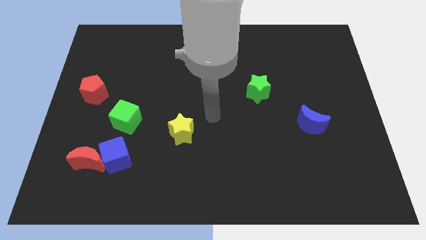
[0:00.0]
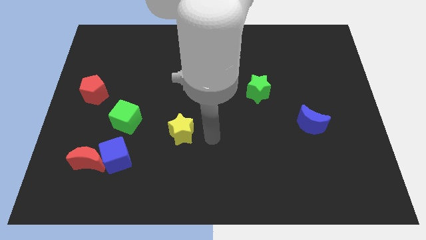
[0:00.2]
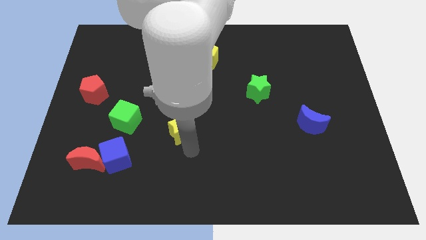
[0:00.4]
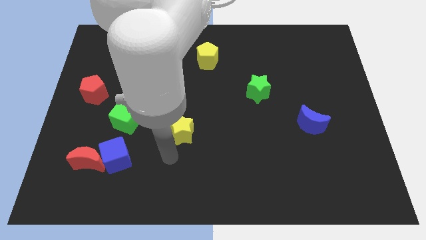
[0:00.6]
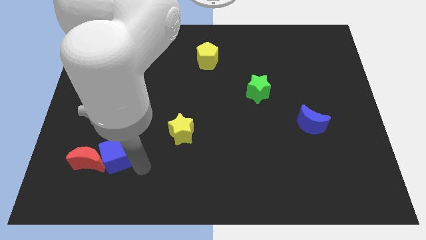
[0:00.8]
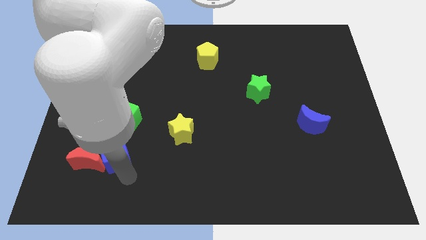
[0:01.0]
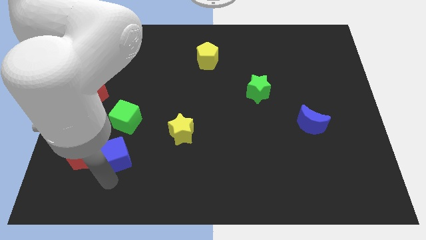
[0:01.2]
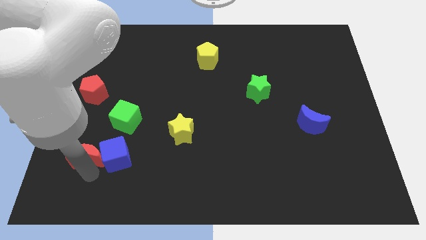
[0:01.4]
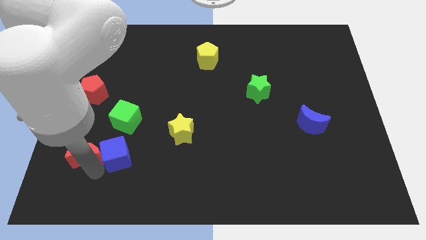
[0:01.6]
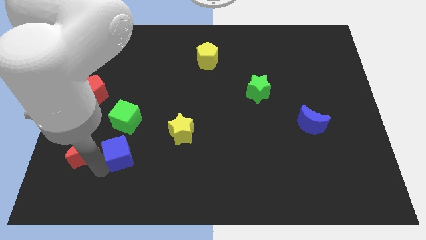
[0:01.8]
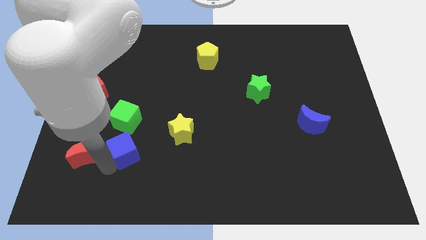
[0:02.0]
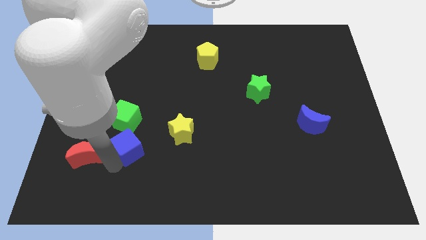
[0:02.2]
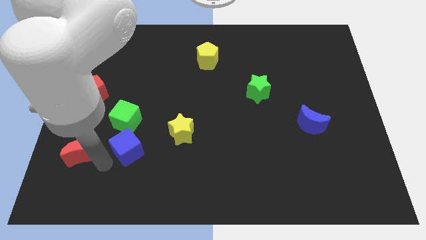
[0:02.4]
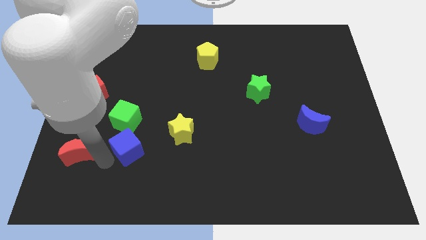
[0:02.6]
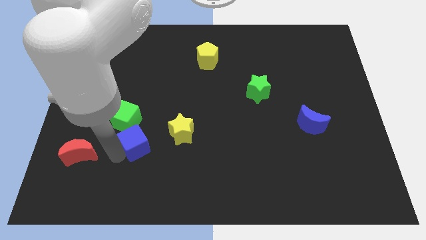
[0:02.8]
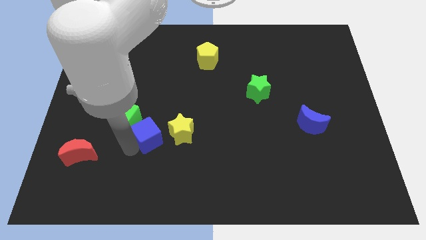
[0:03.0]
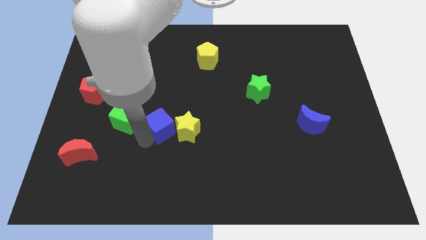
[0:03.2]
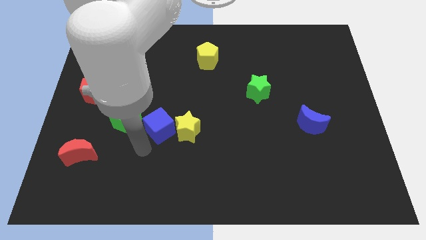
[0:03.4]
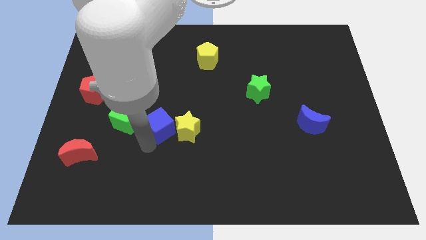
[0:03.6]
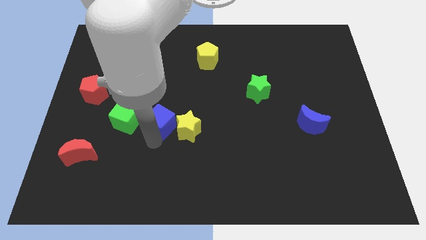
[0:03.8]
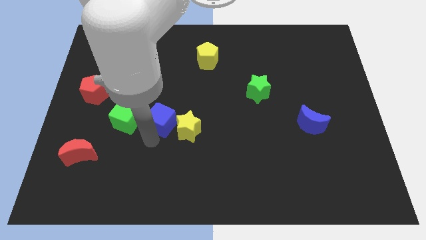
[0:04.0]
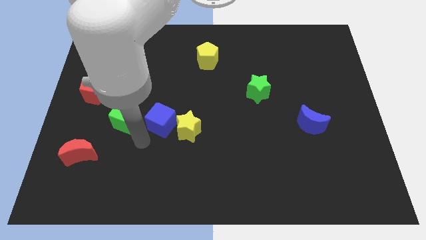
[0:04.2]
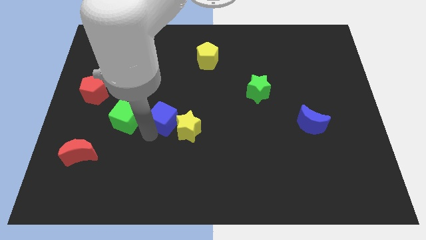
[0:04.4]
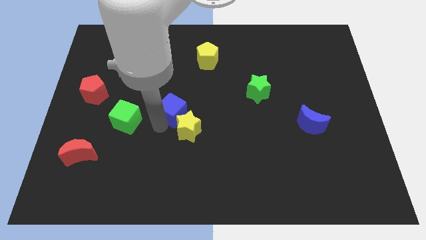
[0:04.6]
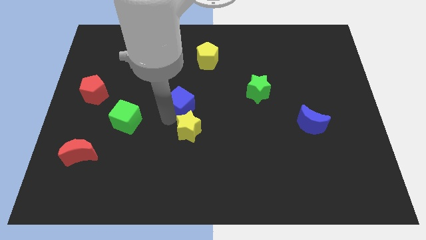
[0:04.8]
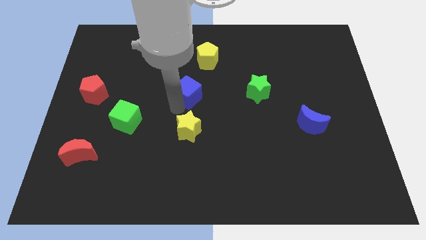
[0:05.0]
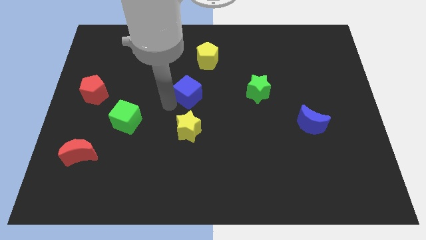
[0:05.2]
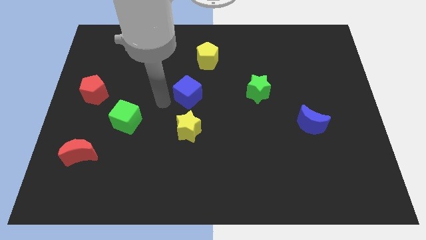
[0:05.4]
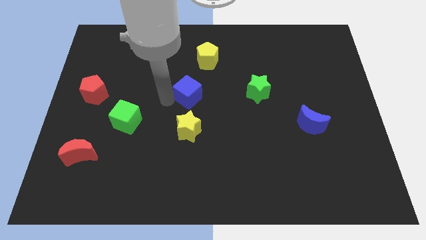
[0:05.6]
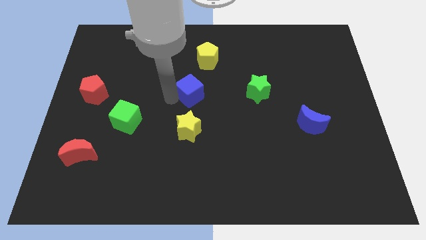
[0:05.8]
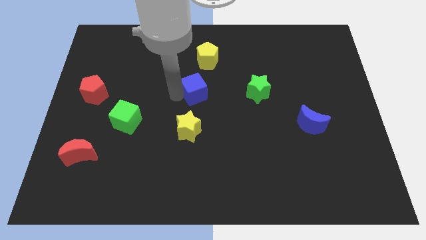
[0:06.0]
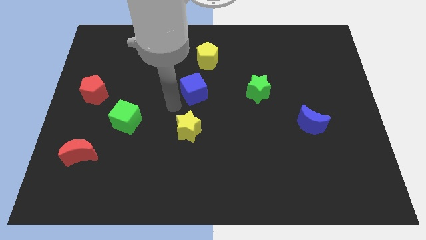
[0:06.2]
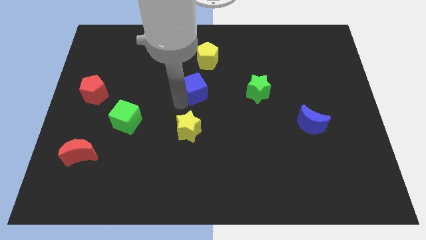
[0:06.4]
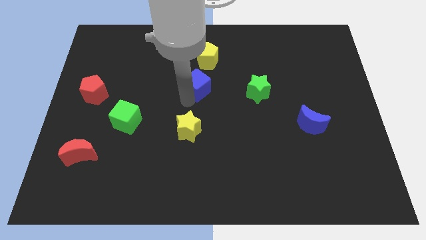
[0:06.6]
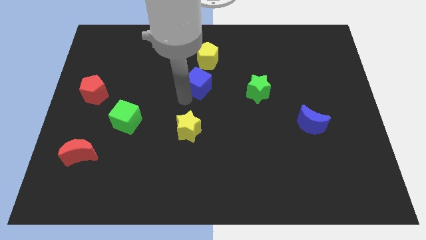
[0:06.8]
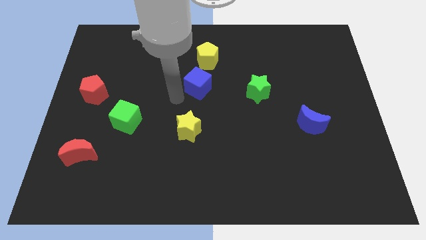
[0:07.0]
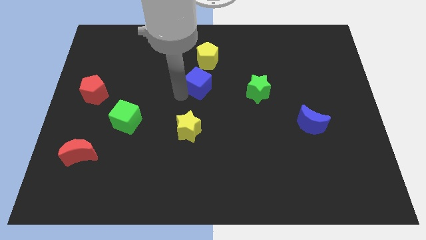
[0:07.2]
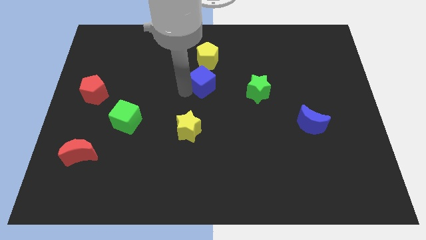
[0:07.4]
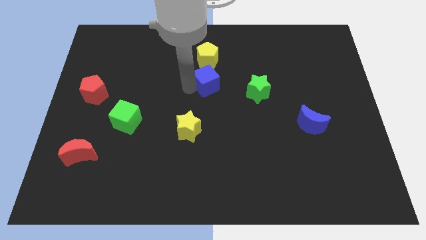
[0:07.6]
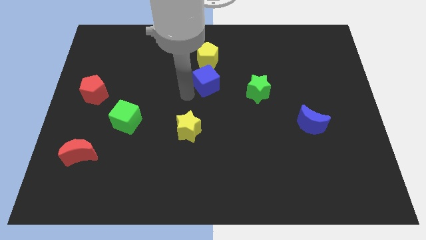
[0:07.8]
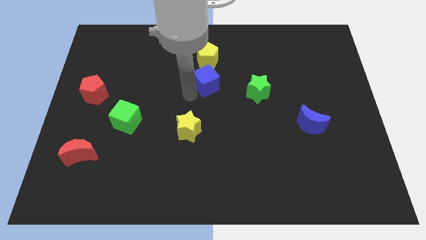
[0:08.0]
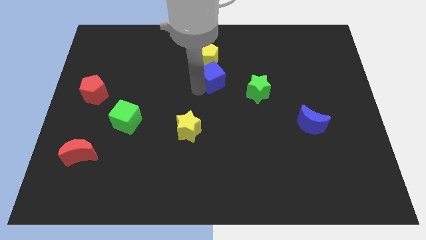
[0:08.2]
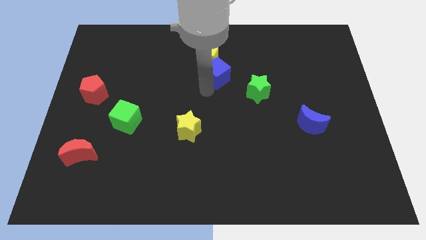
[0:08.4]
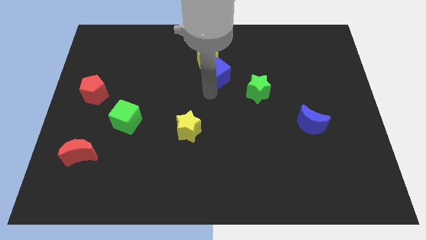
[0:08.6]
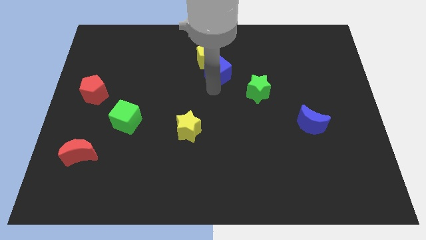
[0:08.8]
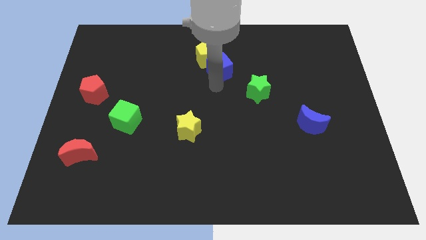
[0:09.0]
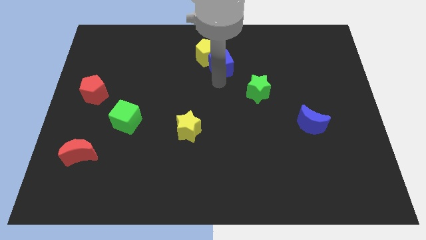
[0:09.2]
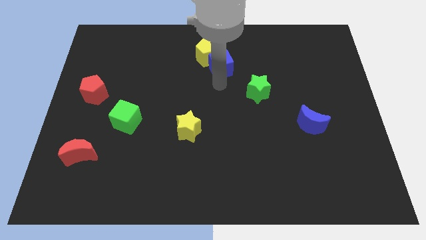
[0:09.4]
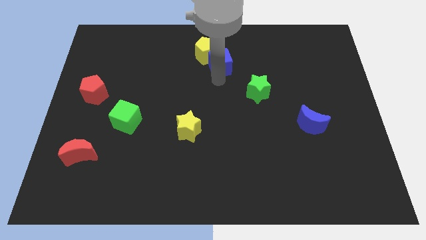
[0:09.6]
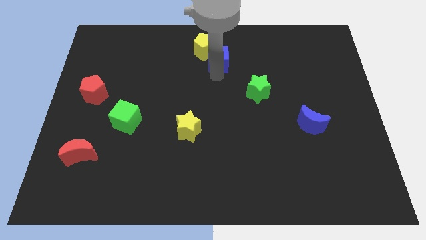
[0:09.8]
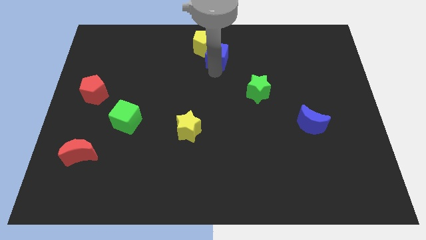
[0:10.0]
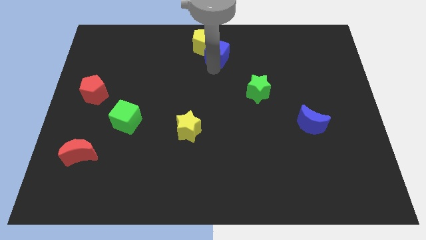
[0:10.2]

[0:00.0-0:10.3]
move the blue cube to the top

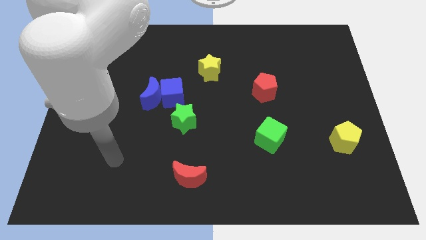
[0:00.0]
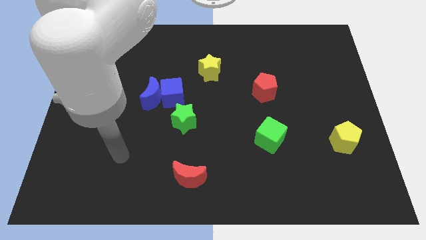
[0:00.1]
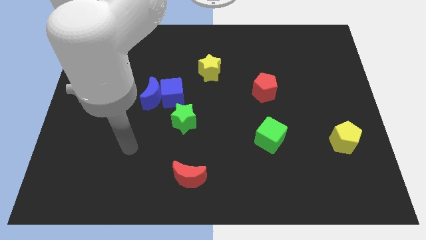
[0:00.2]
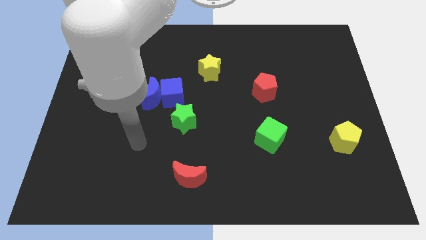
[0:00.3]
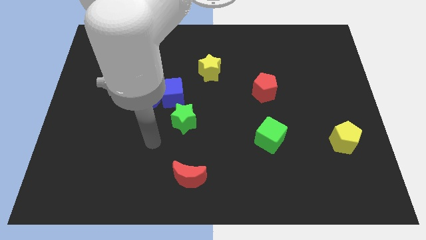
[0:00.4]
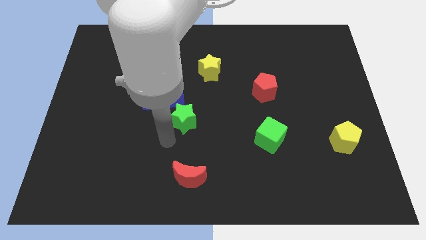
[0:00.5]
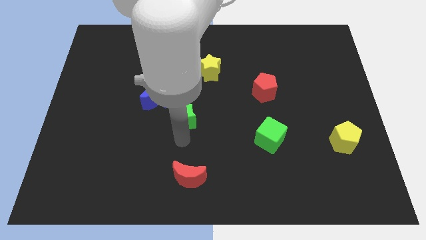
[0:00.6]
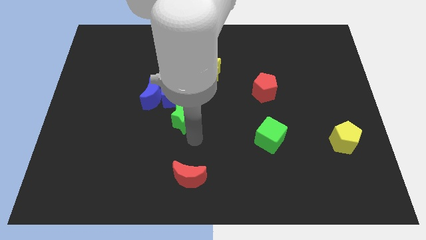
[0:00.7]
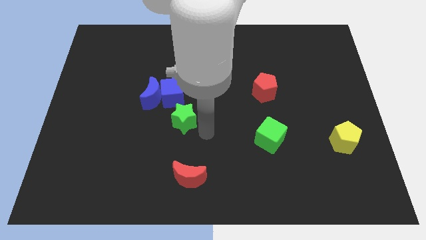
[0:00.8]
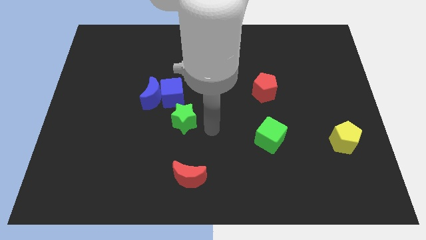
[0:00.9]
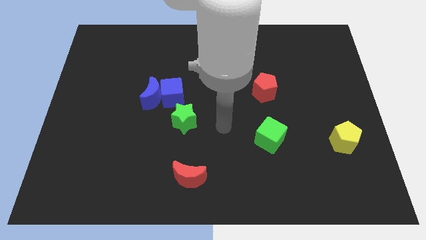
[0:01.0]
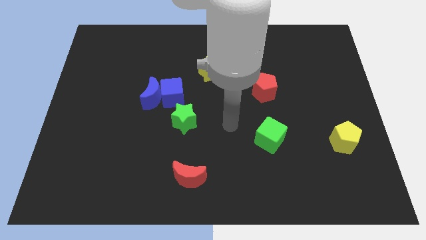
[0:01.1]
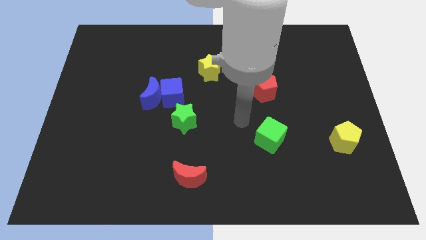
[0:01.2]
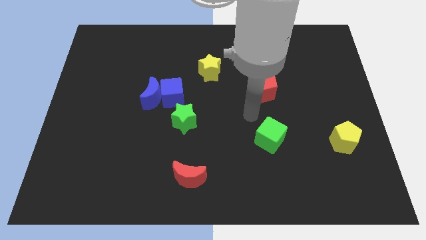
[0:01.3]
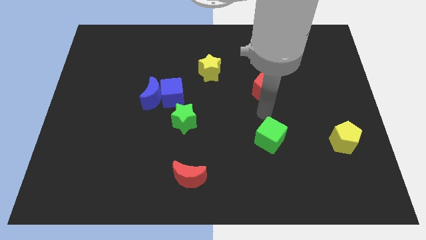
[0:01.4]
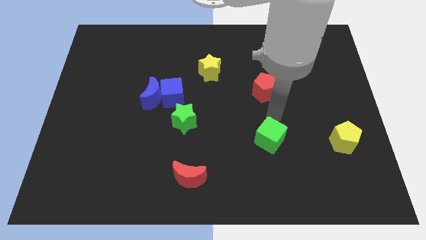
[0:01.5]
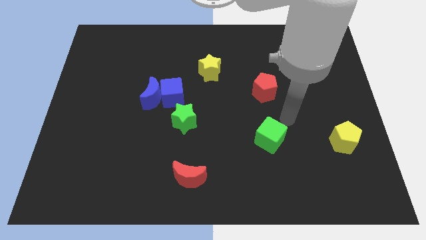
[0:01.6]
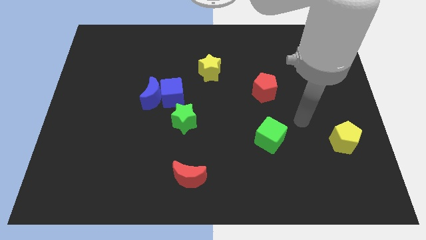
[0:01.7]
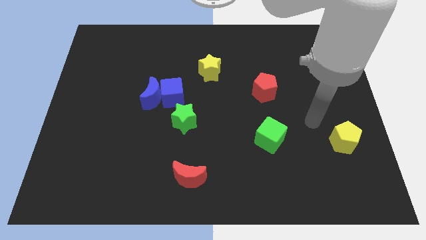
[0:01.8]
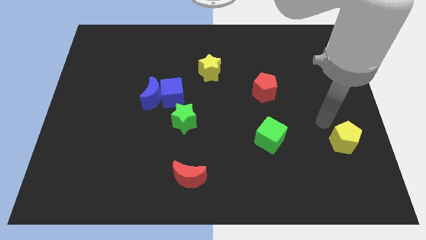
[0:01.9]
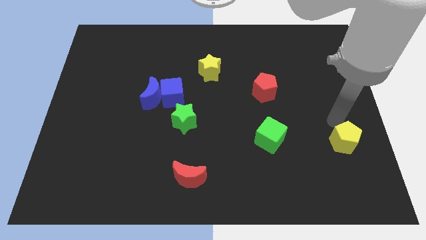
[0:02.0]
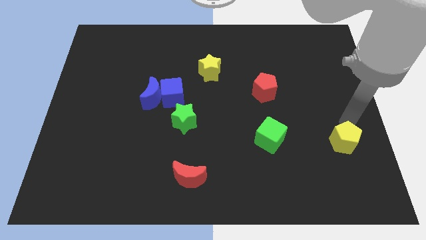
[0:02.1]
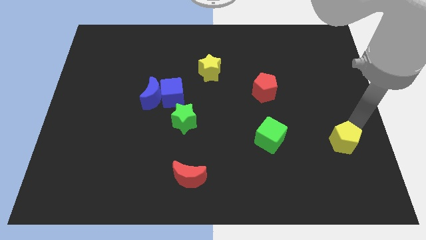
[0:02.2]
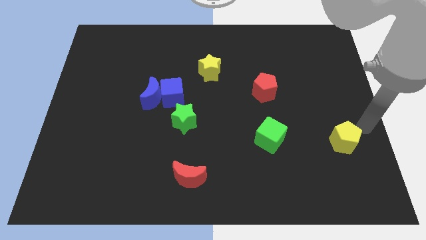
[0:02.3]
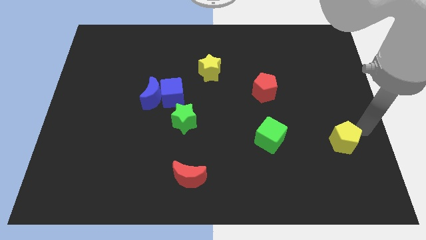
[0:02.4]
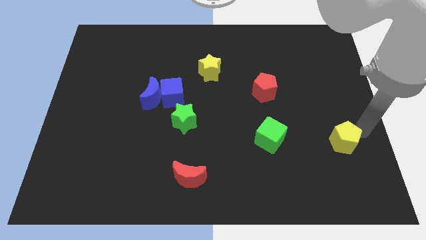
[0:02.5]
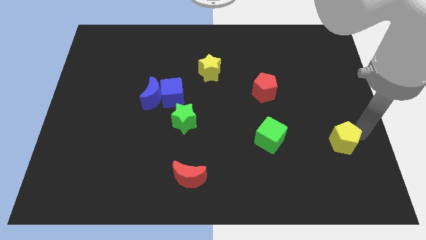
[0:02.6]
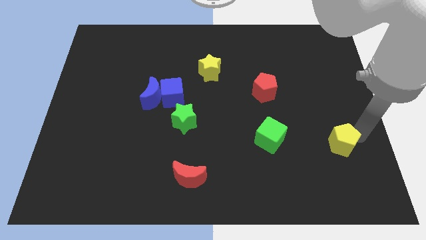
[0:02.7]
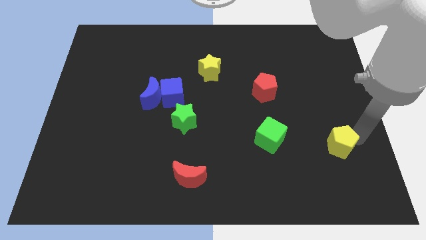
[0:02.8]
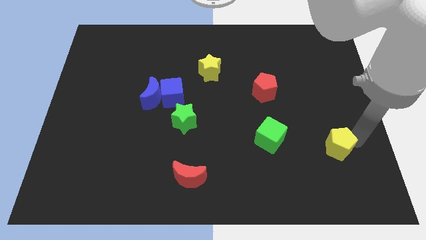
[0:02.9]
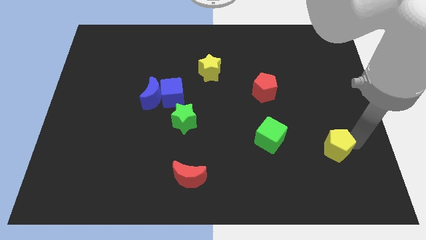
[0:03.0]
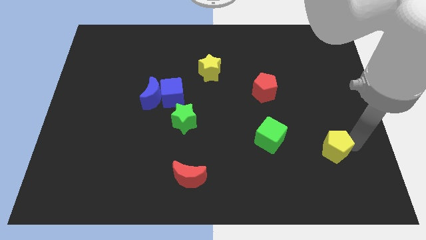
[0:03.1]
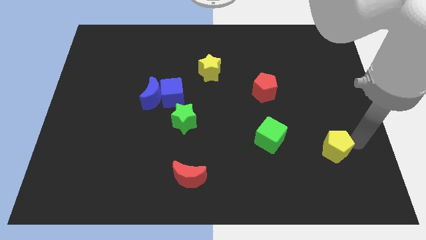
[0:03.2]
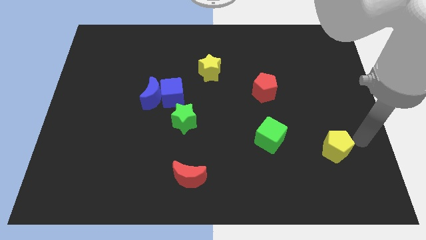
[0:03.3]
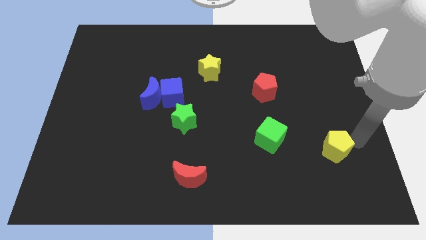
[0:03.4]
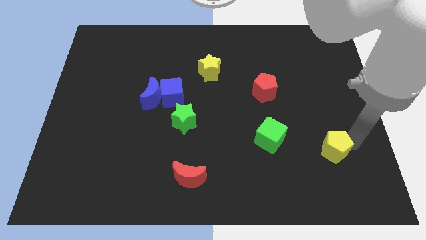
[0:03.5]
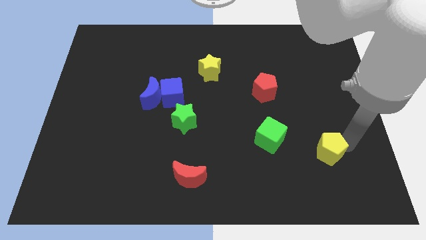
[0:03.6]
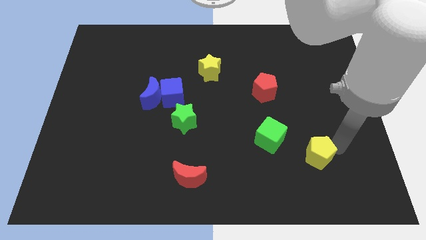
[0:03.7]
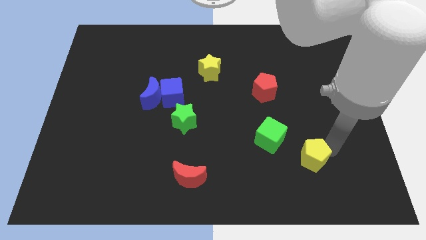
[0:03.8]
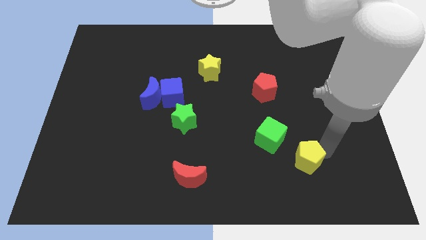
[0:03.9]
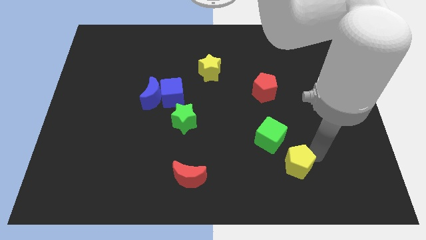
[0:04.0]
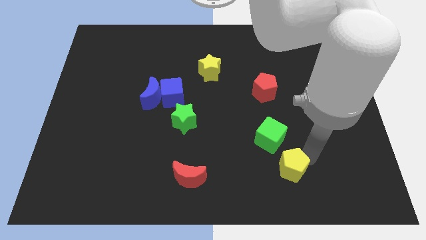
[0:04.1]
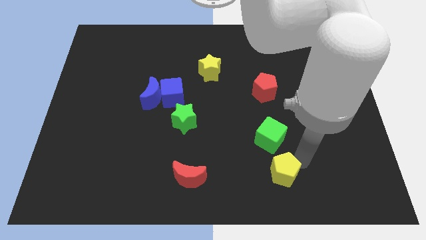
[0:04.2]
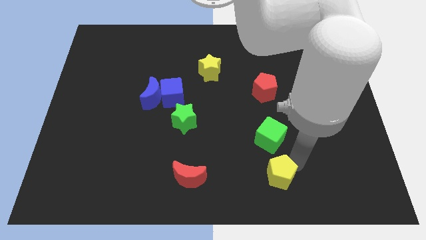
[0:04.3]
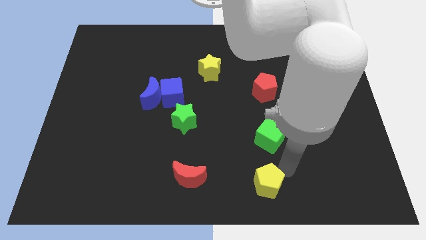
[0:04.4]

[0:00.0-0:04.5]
push the yellow pentagon to the bottom
